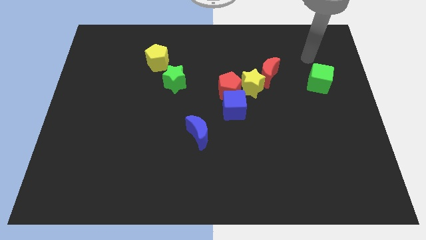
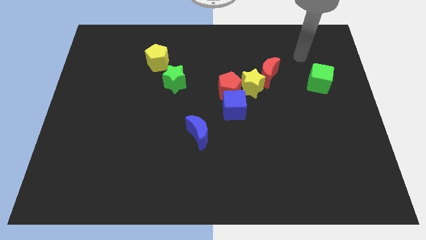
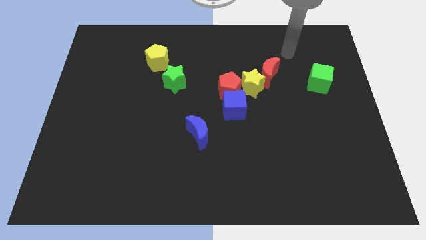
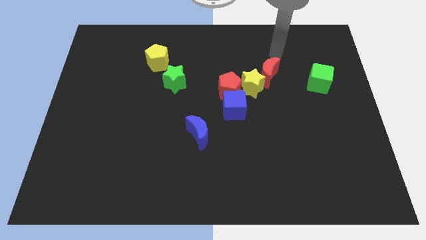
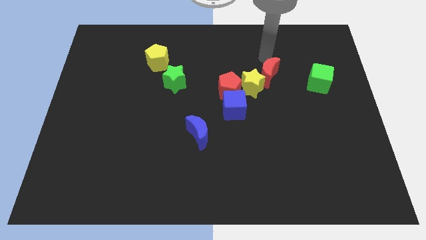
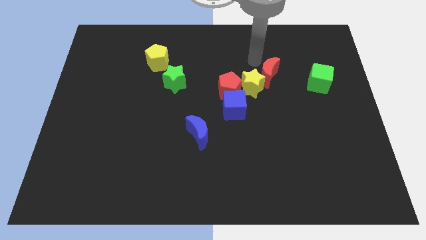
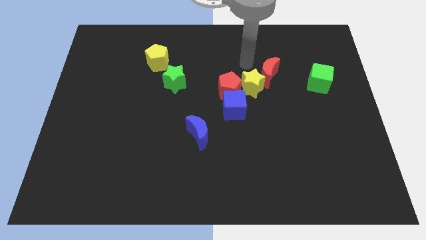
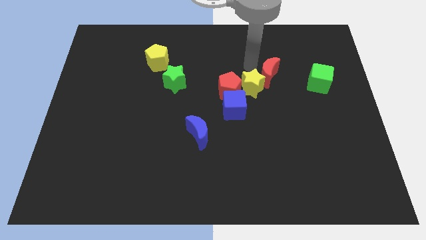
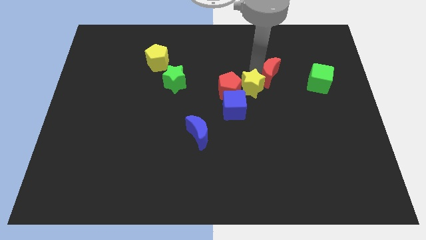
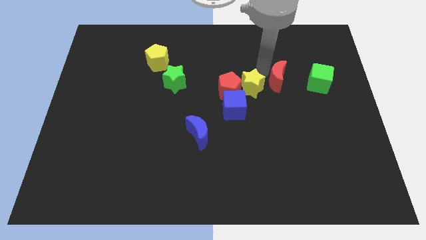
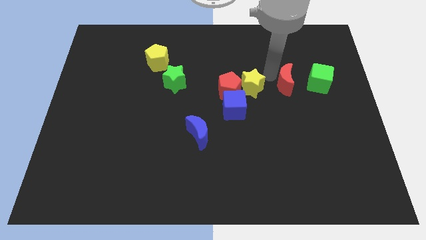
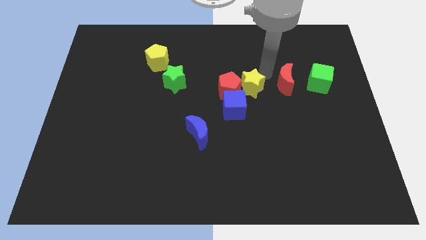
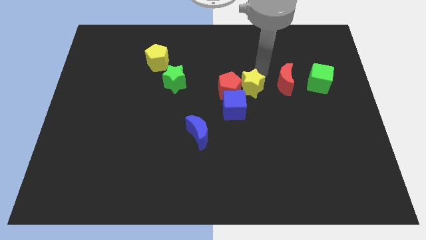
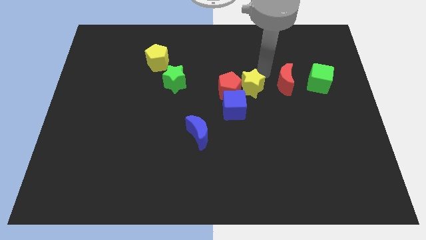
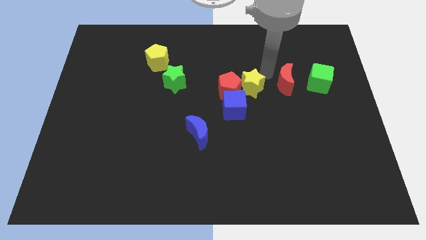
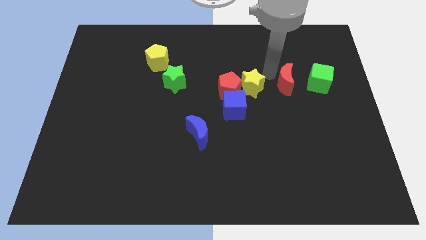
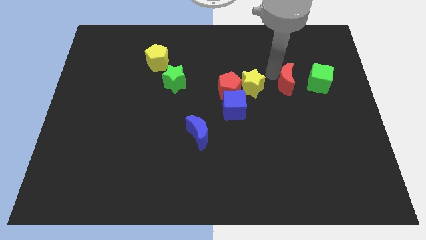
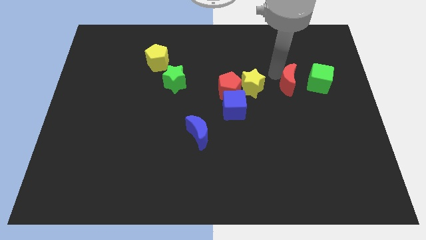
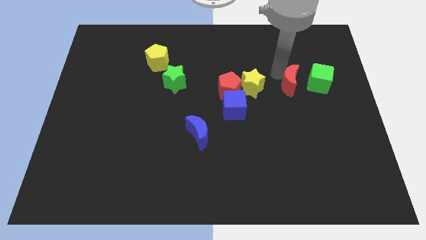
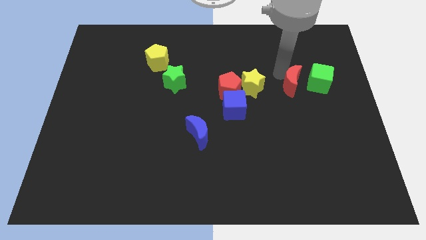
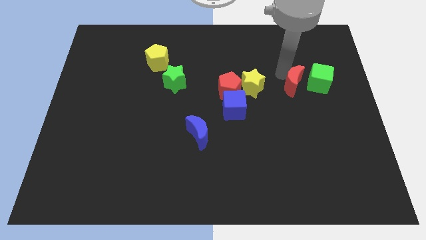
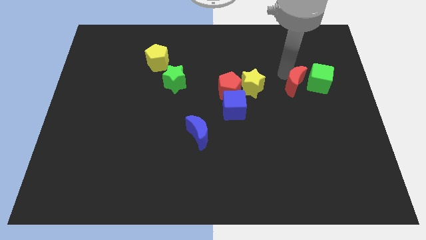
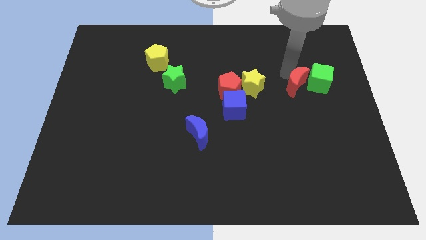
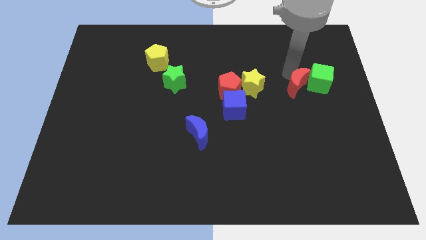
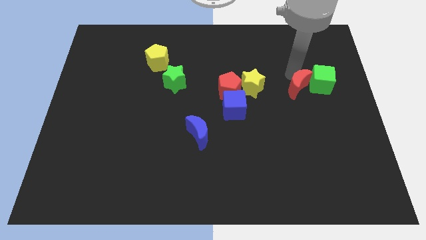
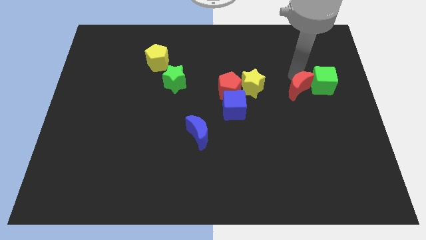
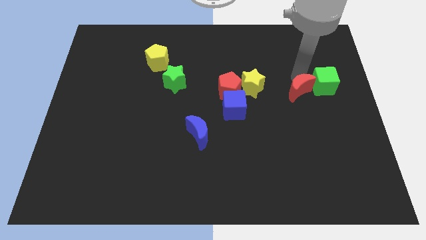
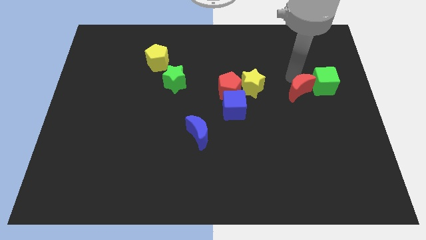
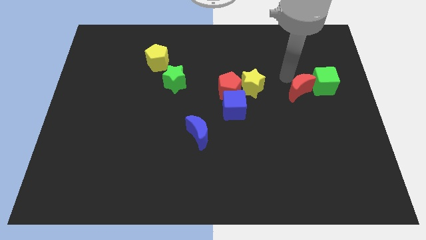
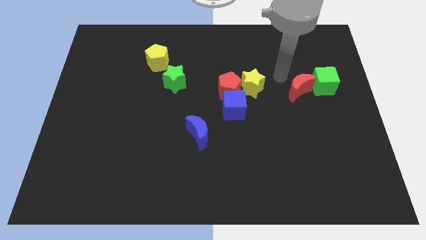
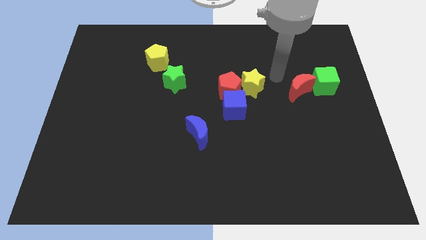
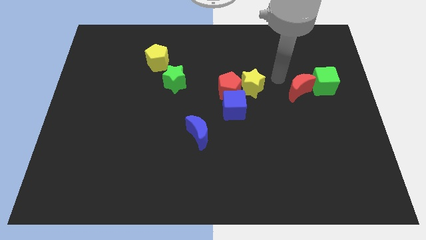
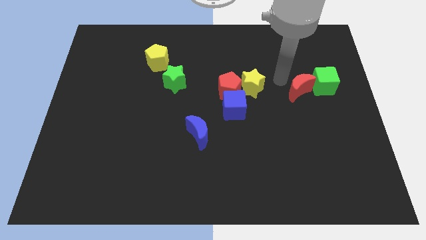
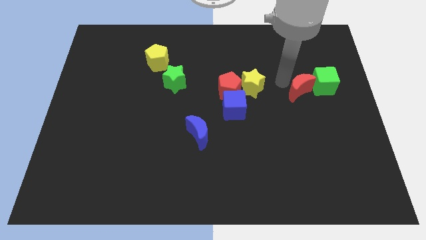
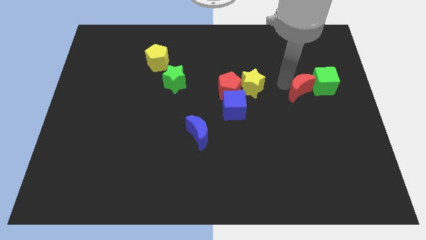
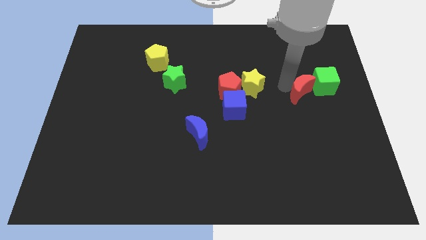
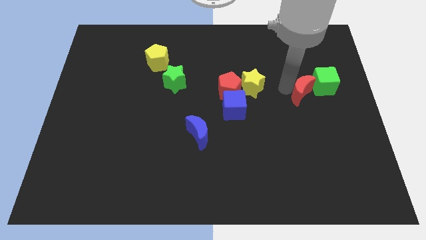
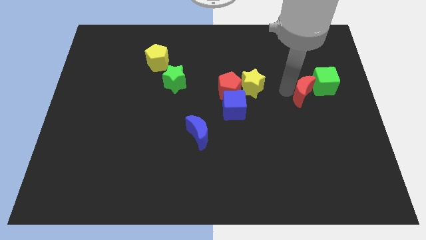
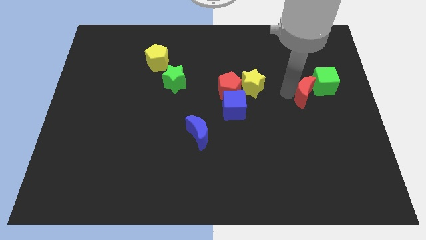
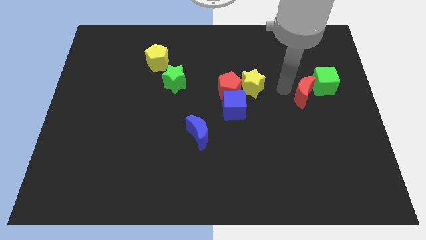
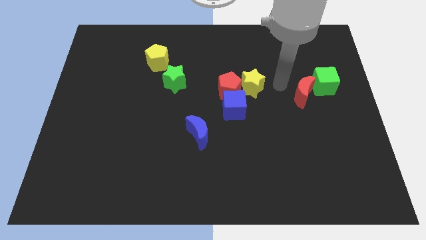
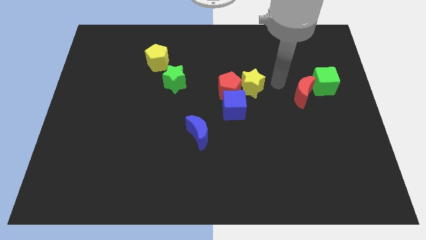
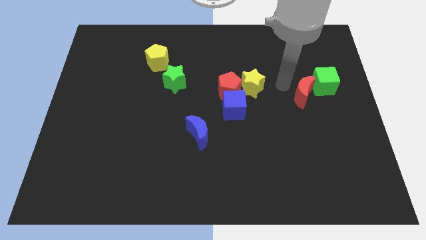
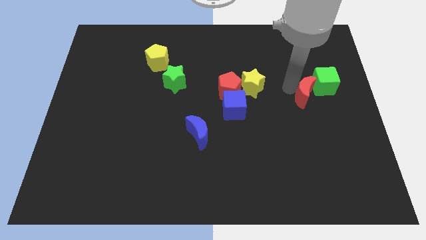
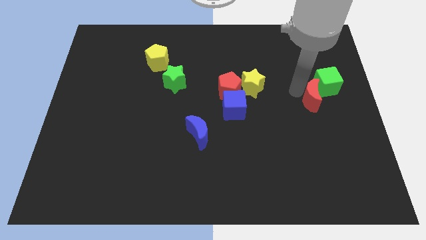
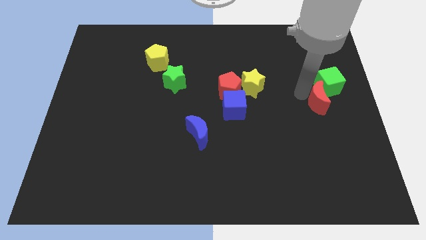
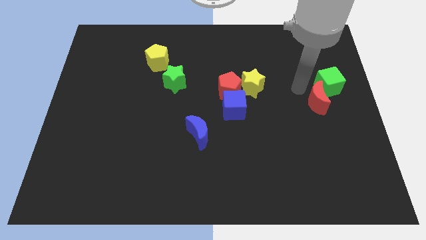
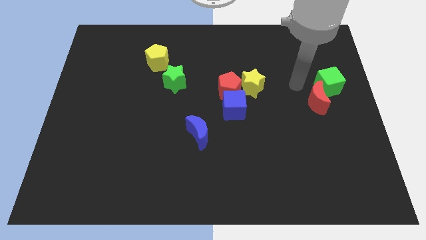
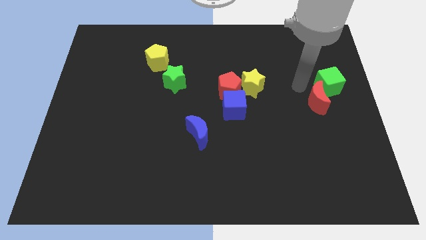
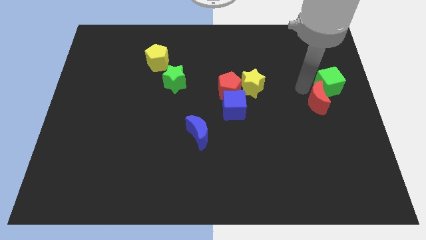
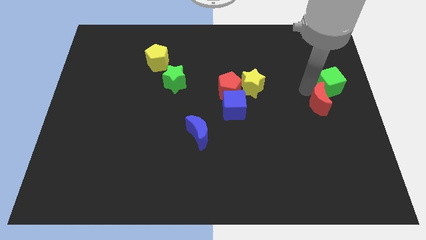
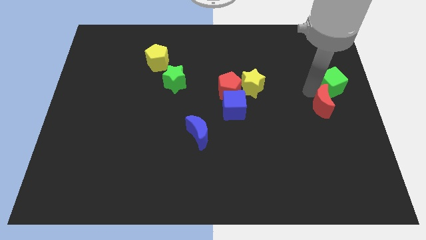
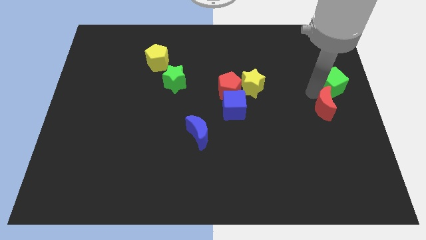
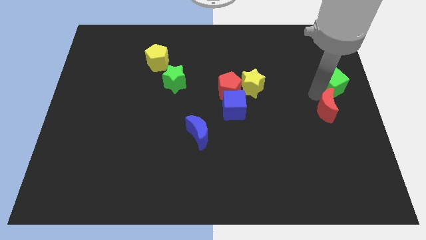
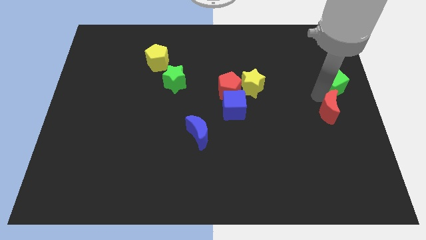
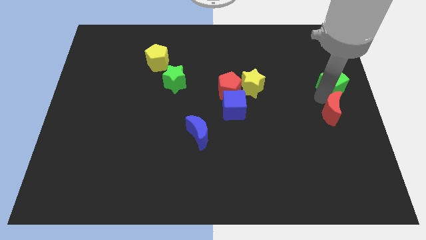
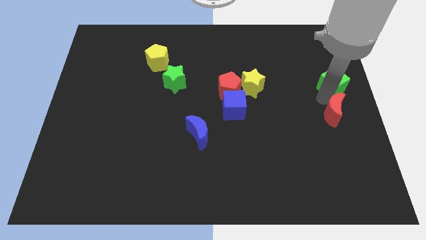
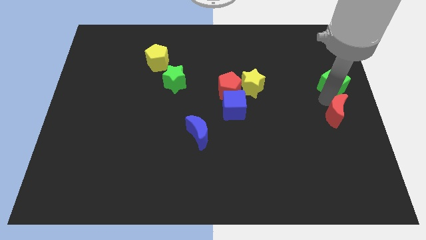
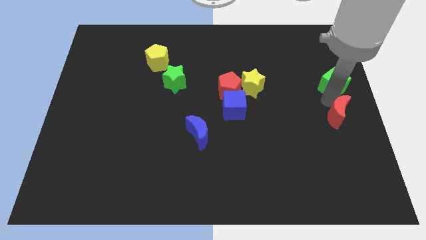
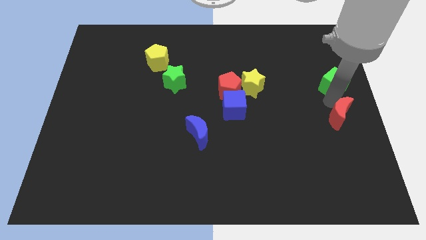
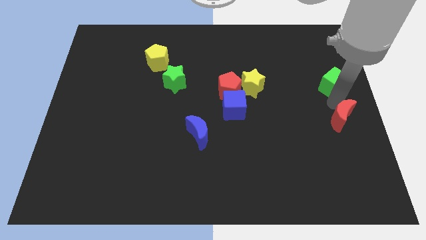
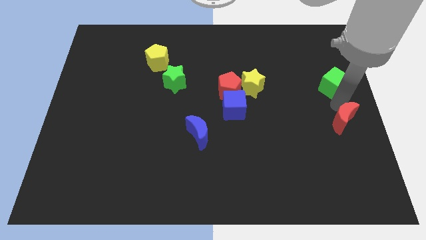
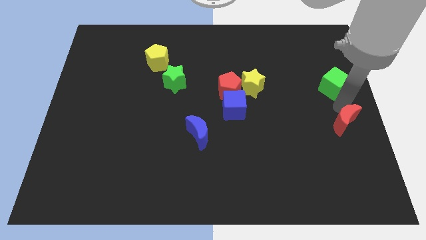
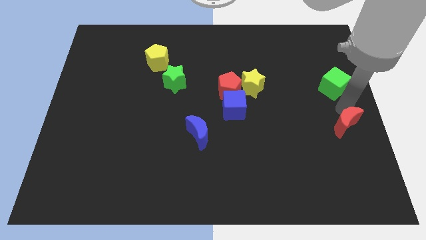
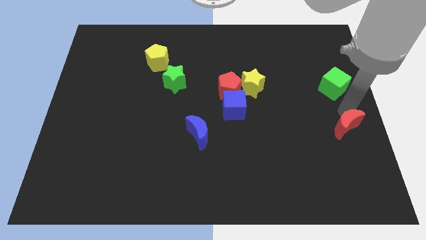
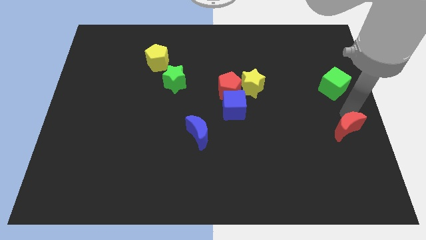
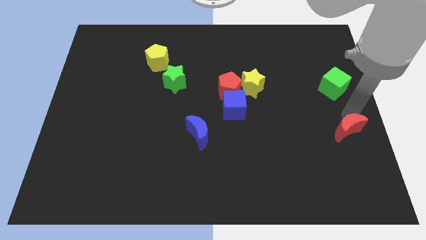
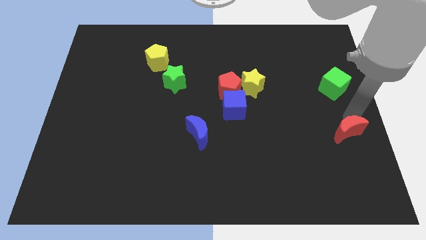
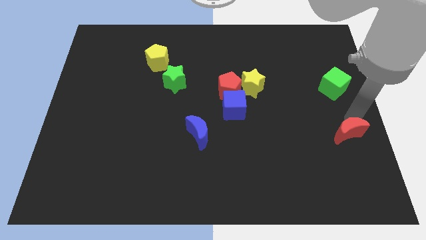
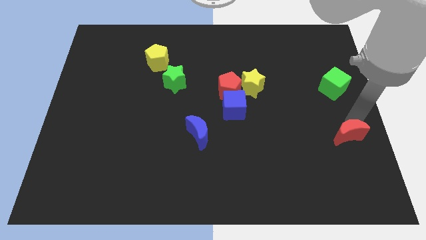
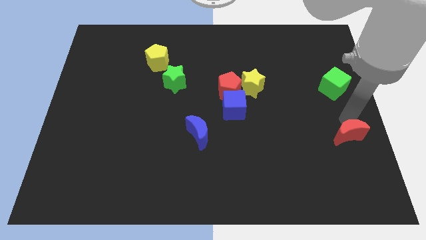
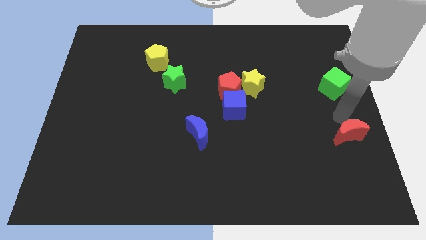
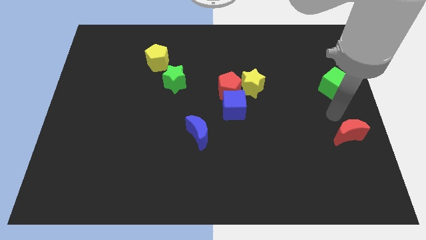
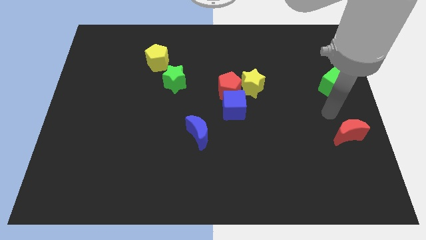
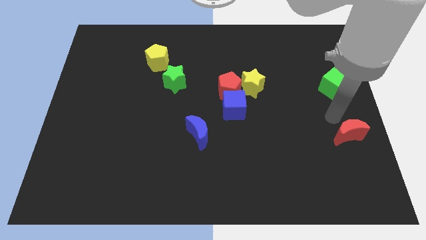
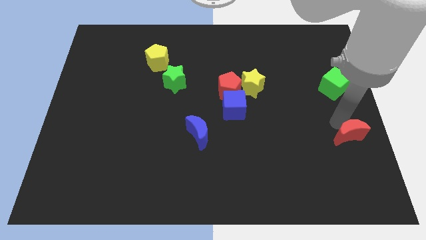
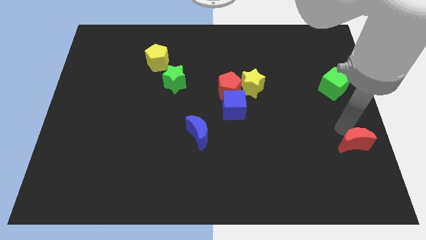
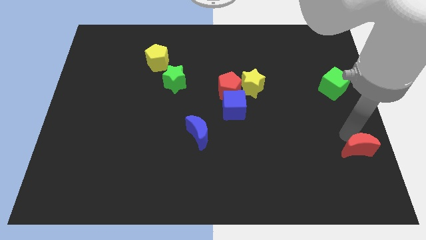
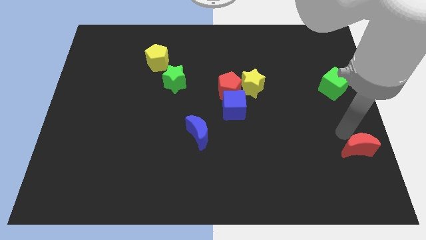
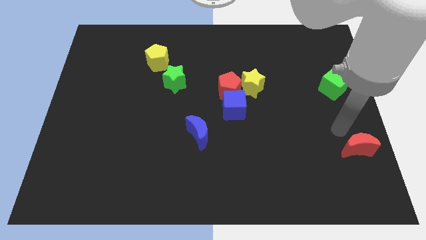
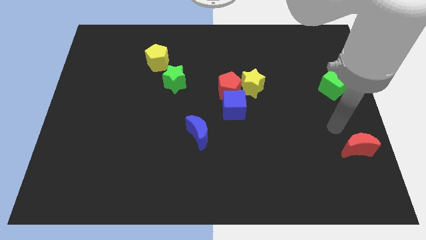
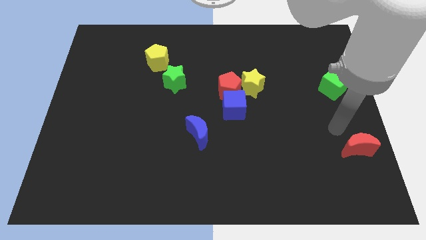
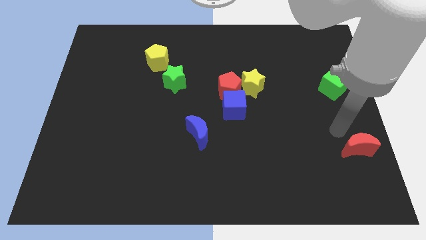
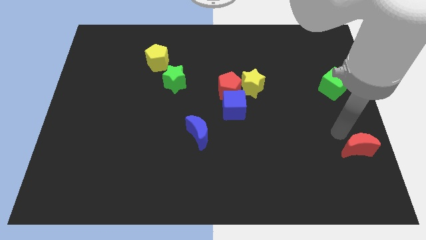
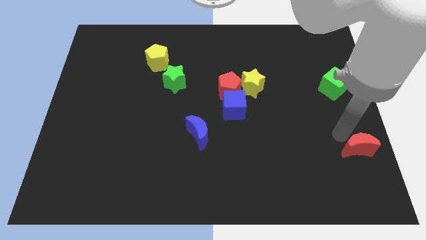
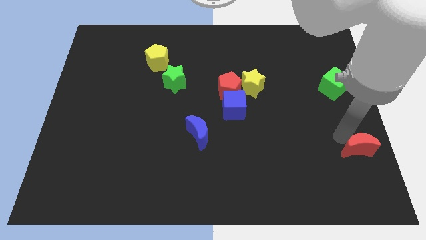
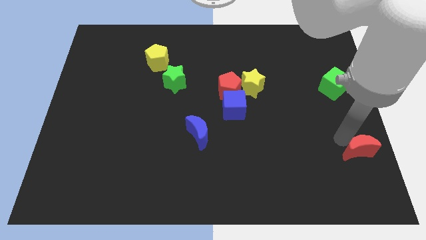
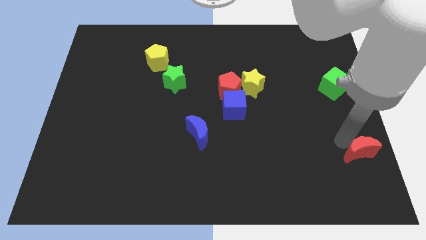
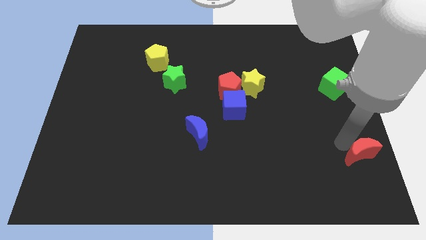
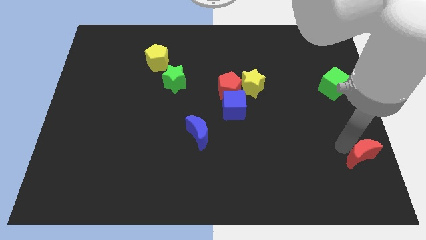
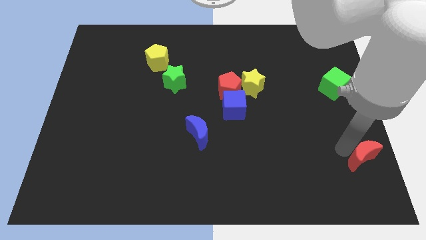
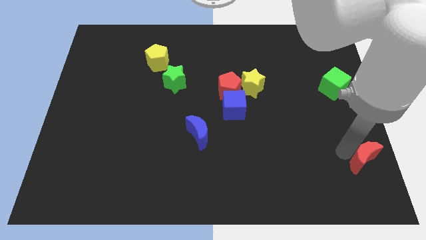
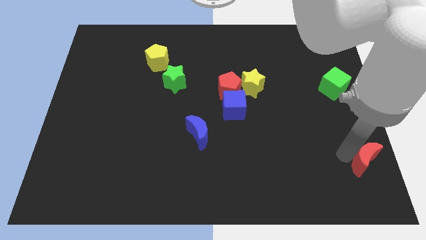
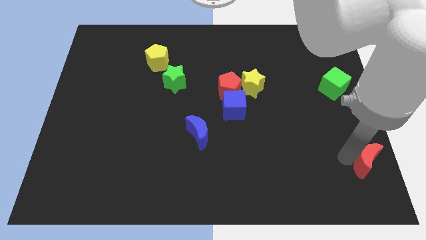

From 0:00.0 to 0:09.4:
put the red moon to the bottom right corner
